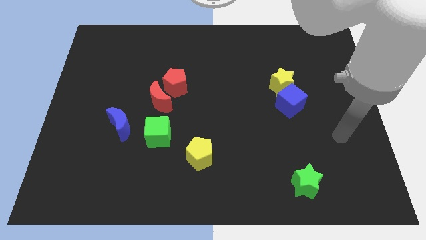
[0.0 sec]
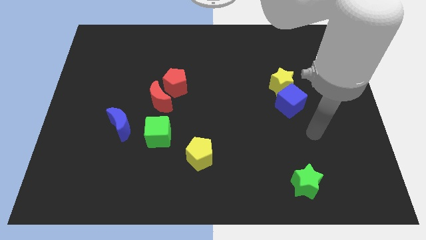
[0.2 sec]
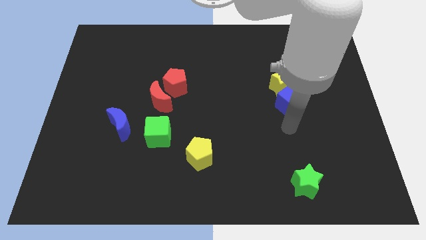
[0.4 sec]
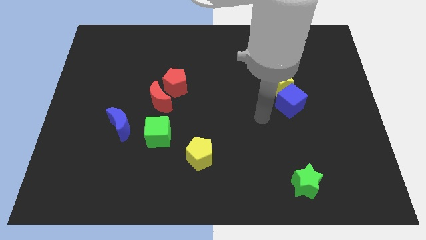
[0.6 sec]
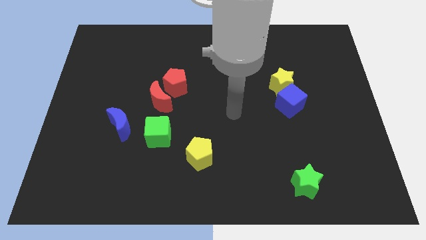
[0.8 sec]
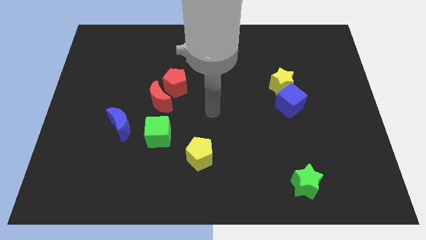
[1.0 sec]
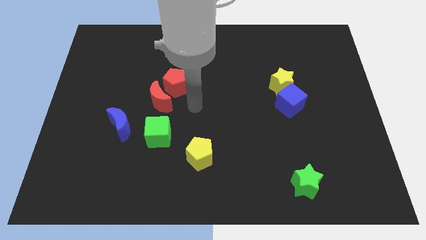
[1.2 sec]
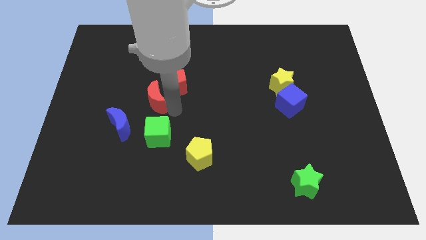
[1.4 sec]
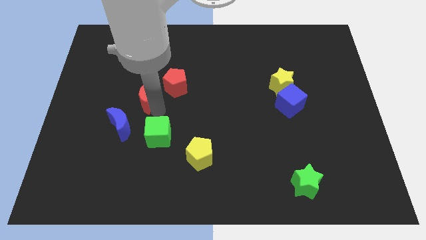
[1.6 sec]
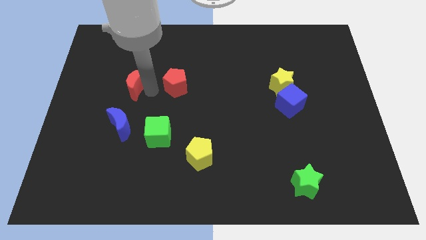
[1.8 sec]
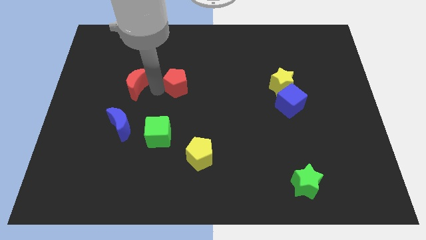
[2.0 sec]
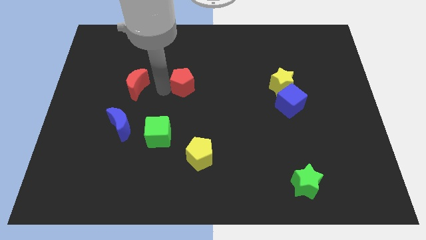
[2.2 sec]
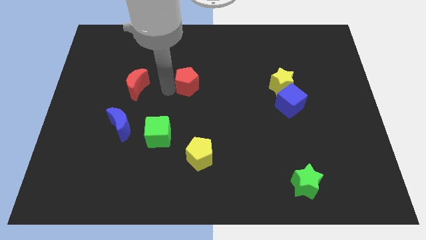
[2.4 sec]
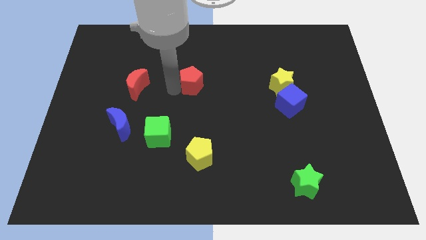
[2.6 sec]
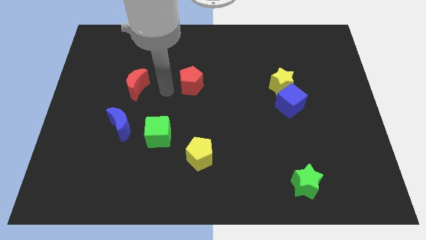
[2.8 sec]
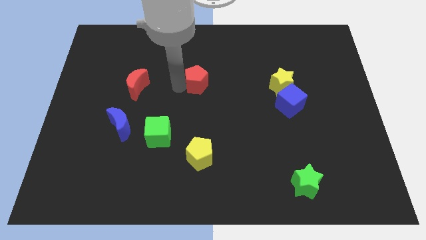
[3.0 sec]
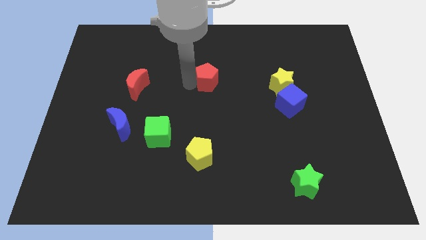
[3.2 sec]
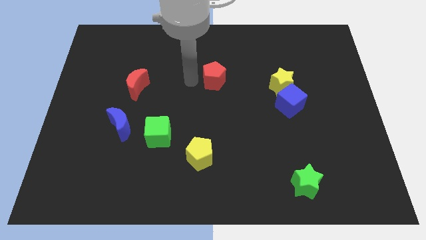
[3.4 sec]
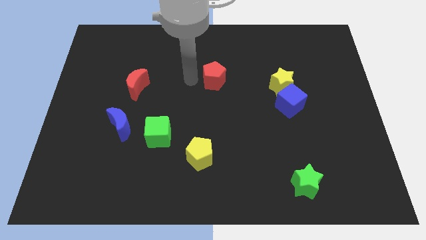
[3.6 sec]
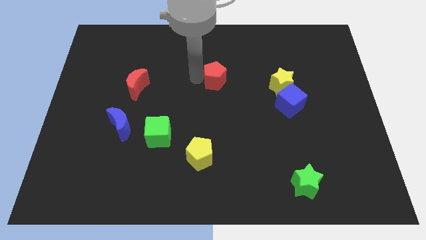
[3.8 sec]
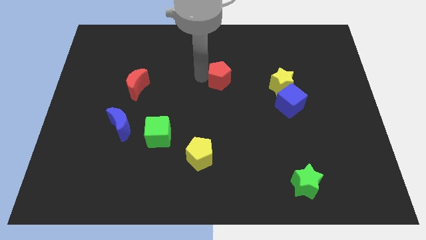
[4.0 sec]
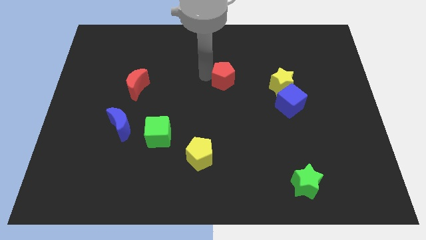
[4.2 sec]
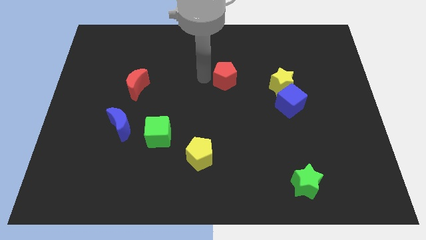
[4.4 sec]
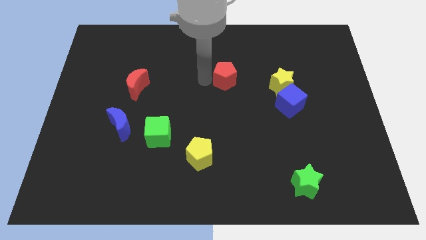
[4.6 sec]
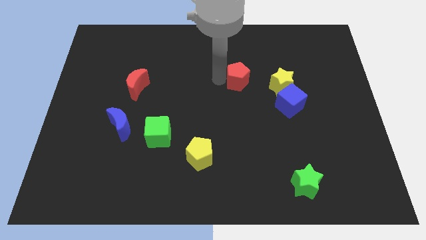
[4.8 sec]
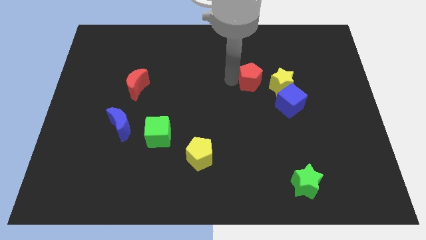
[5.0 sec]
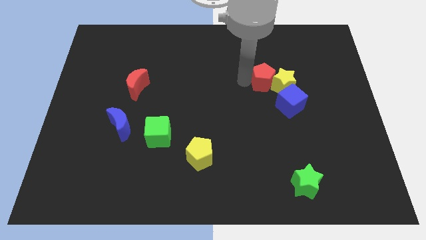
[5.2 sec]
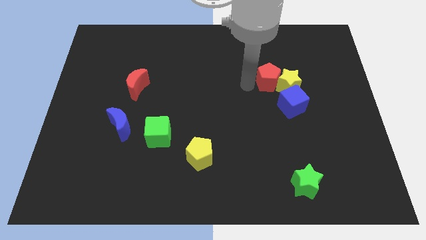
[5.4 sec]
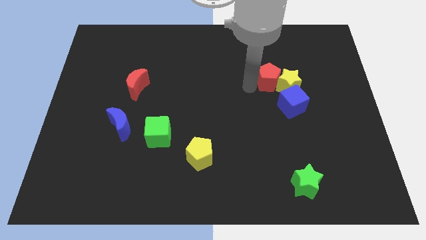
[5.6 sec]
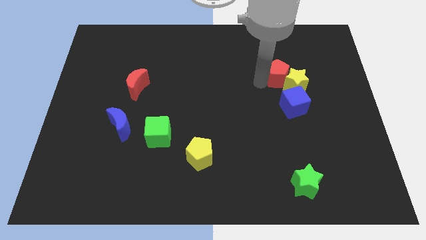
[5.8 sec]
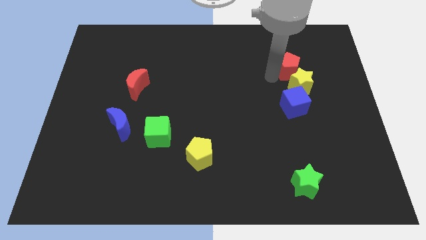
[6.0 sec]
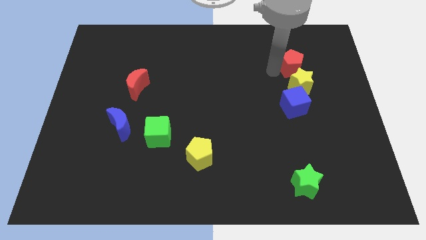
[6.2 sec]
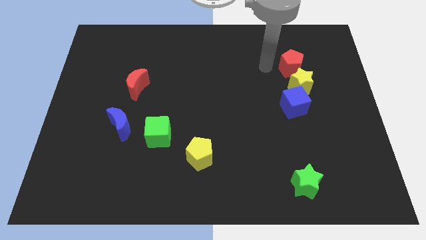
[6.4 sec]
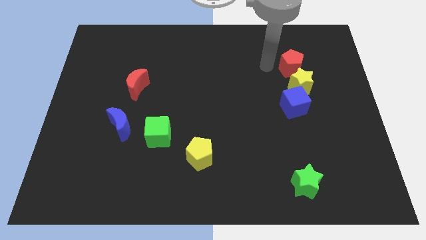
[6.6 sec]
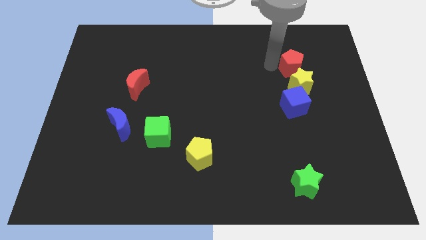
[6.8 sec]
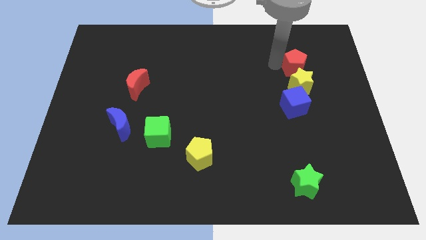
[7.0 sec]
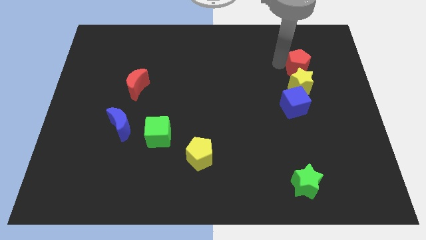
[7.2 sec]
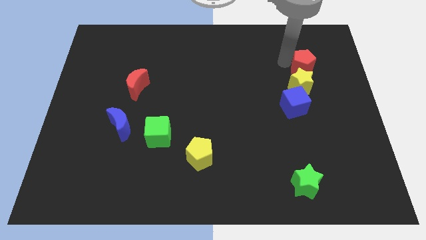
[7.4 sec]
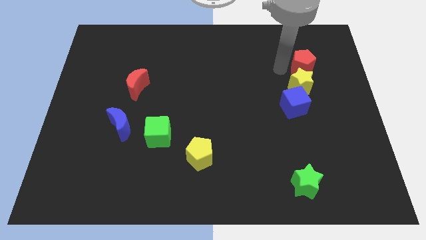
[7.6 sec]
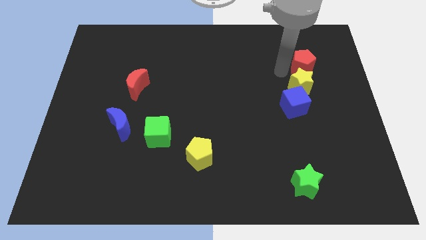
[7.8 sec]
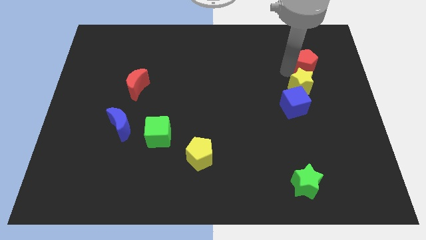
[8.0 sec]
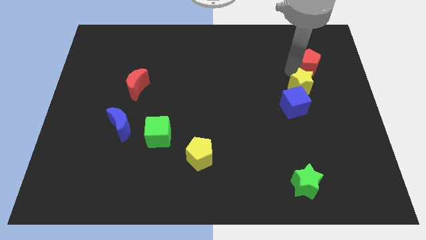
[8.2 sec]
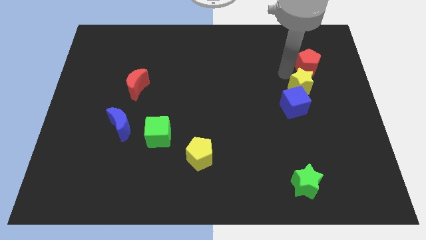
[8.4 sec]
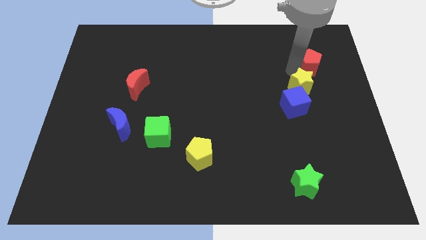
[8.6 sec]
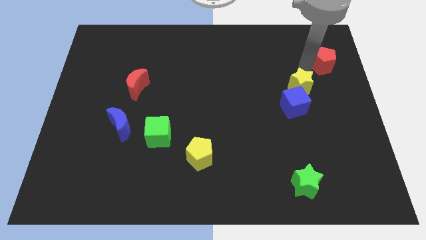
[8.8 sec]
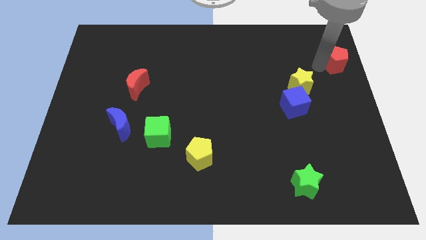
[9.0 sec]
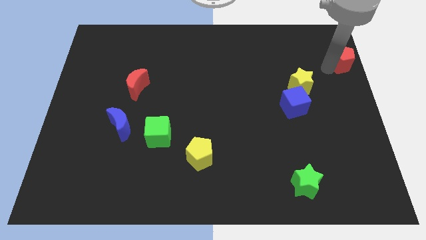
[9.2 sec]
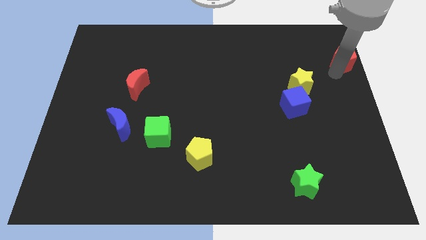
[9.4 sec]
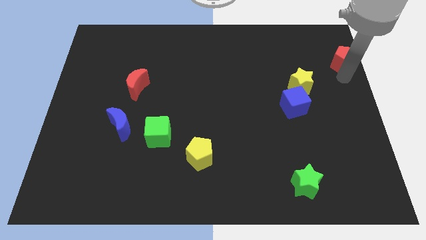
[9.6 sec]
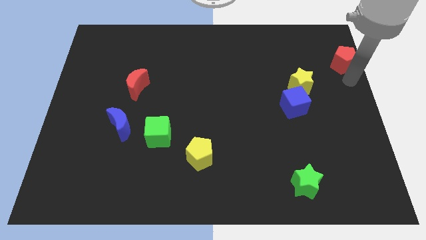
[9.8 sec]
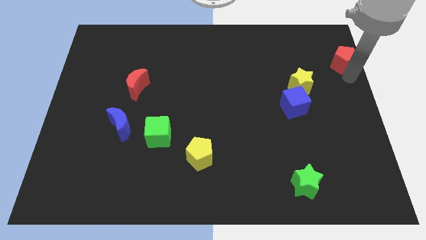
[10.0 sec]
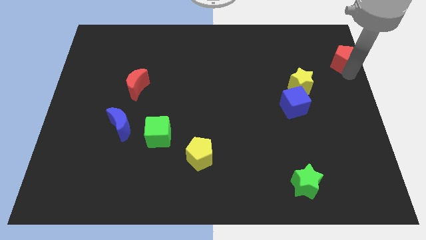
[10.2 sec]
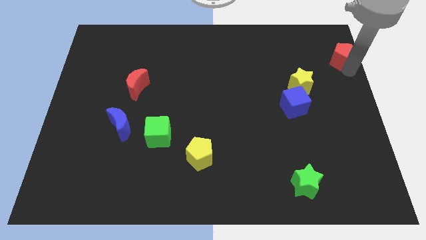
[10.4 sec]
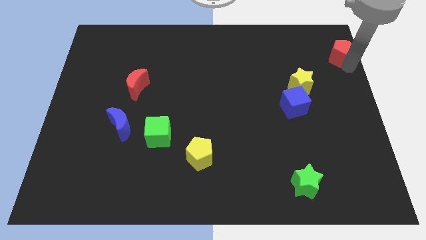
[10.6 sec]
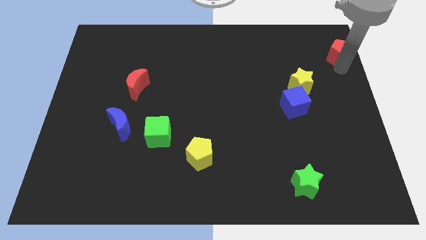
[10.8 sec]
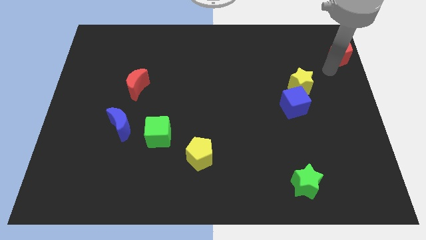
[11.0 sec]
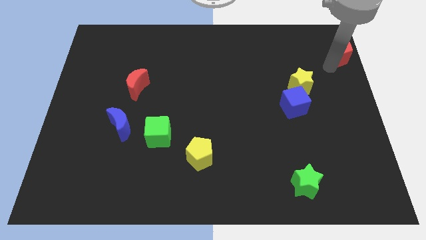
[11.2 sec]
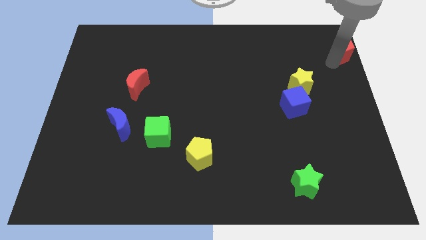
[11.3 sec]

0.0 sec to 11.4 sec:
move the red pentagon to the upper right corner

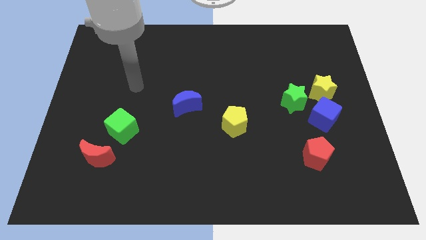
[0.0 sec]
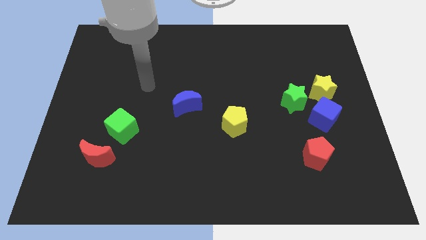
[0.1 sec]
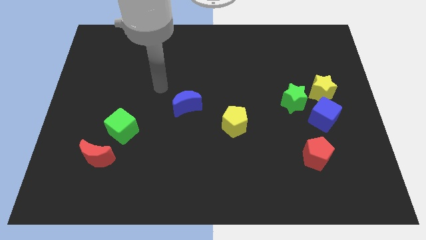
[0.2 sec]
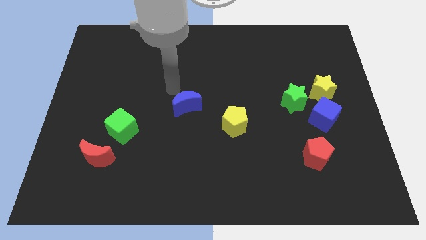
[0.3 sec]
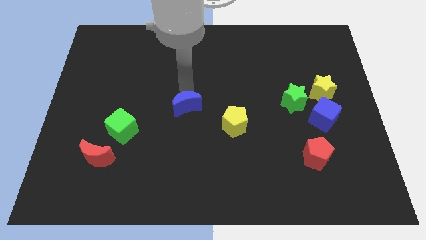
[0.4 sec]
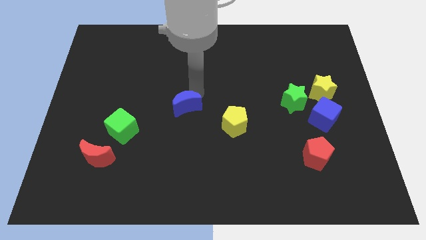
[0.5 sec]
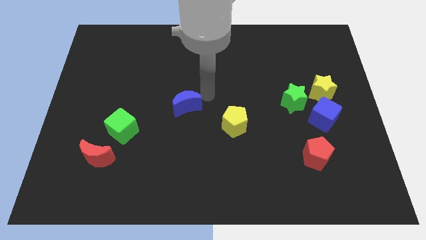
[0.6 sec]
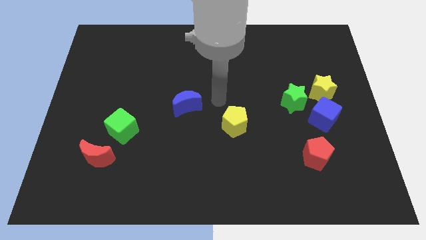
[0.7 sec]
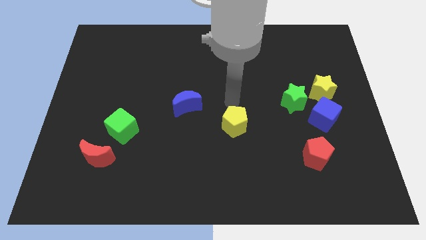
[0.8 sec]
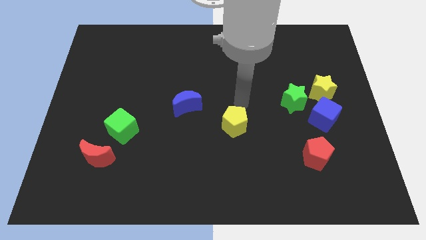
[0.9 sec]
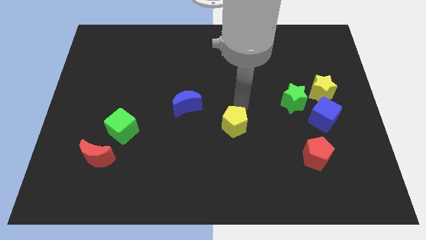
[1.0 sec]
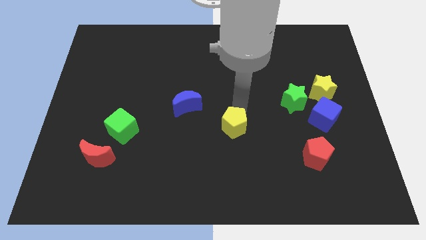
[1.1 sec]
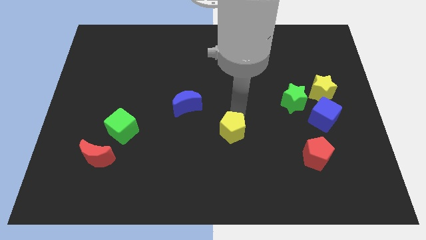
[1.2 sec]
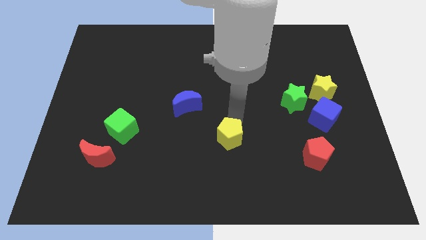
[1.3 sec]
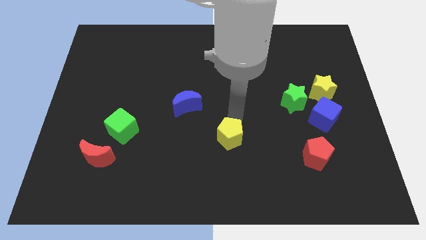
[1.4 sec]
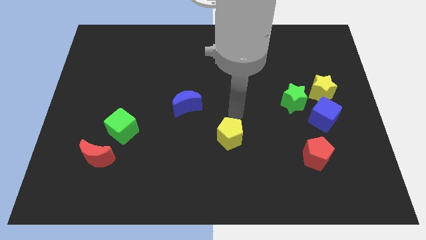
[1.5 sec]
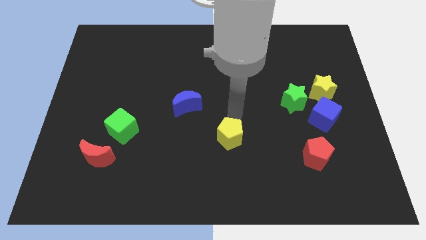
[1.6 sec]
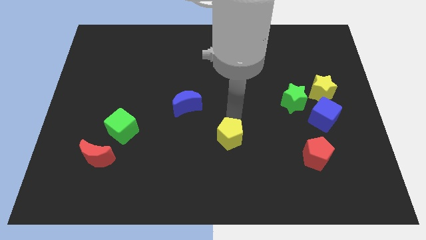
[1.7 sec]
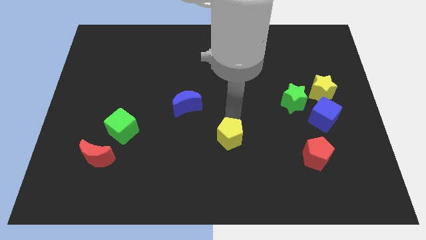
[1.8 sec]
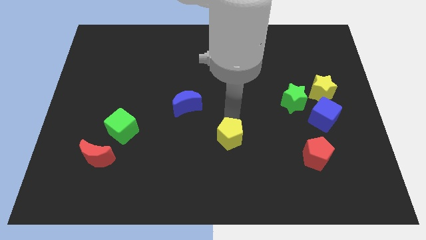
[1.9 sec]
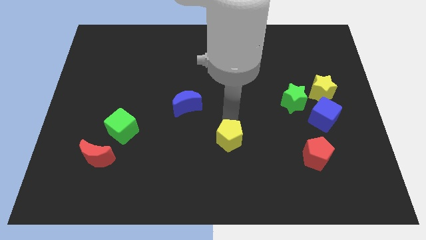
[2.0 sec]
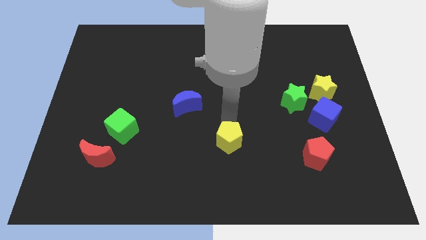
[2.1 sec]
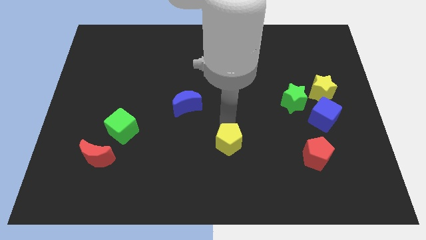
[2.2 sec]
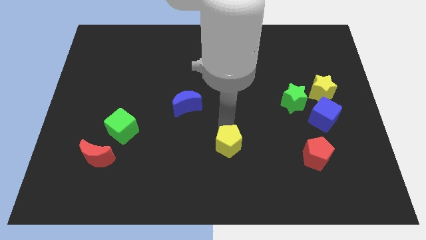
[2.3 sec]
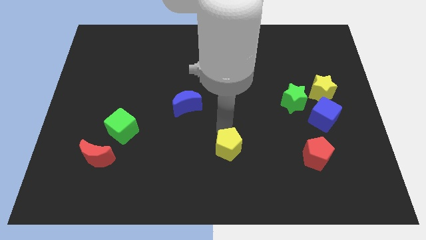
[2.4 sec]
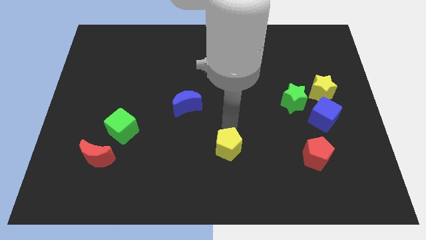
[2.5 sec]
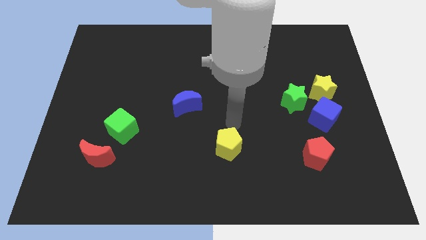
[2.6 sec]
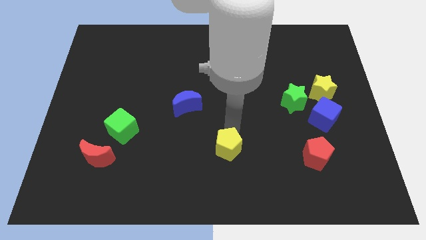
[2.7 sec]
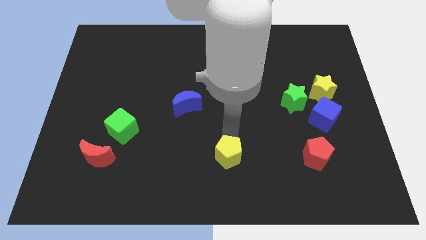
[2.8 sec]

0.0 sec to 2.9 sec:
slide the yellow pentagon to the bottom
